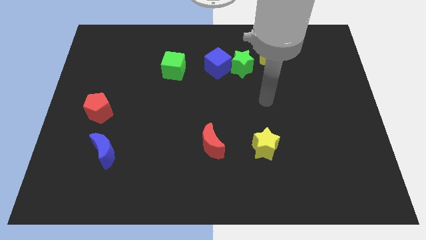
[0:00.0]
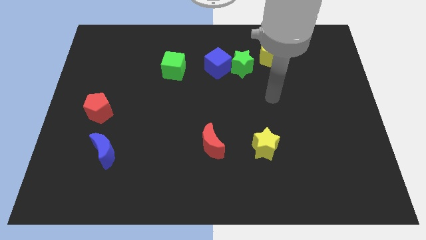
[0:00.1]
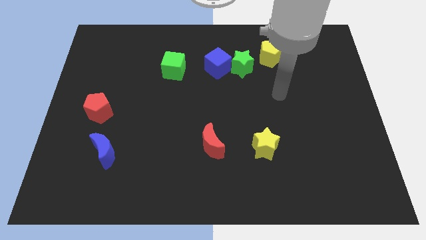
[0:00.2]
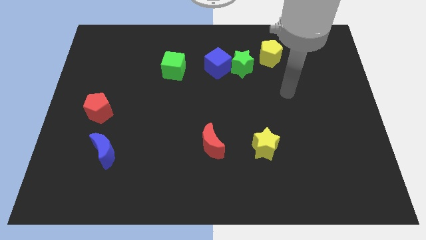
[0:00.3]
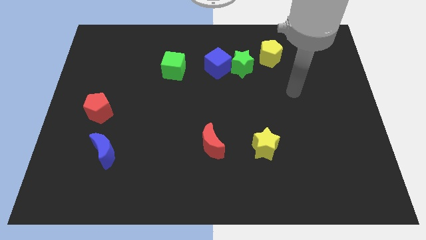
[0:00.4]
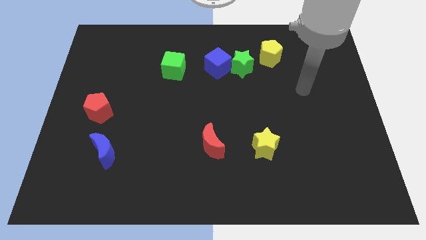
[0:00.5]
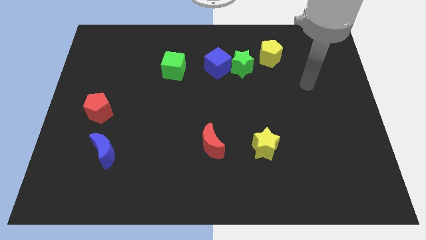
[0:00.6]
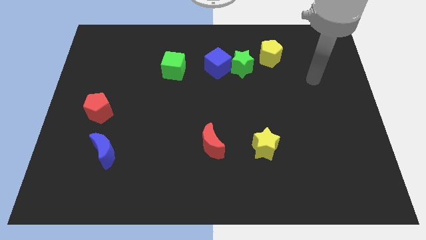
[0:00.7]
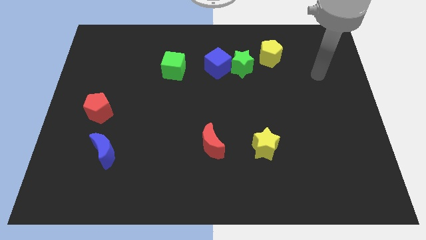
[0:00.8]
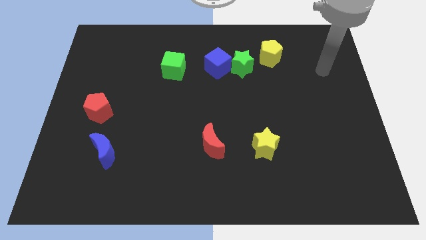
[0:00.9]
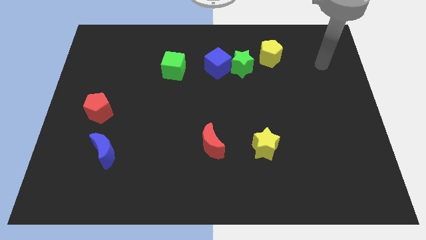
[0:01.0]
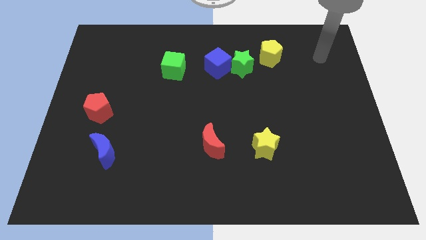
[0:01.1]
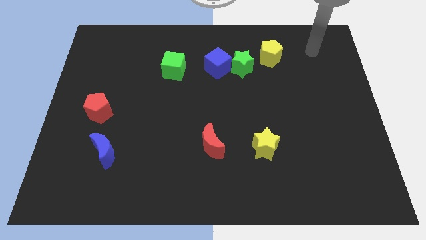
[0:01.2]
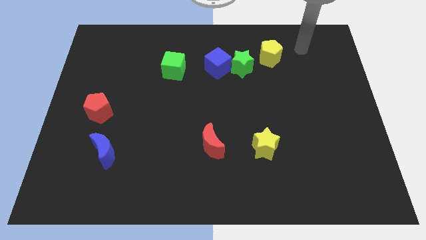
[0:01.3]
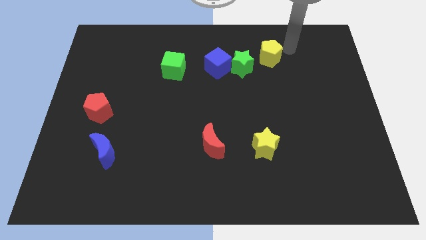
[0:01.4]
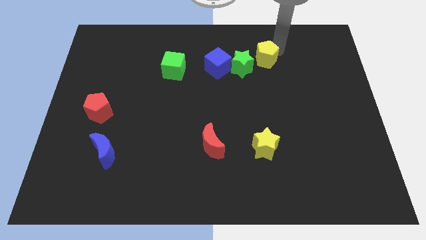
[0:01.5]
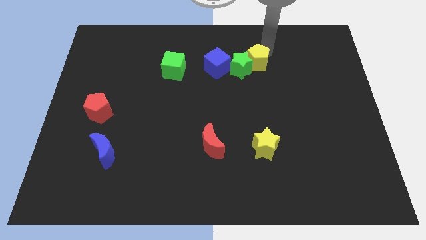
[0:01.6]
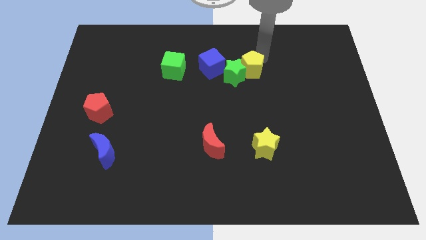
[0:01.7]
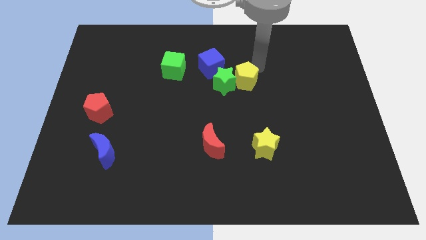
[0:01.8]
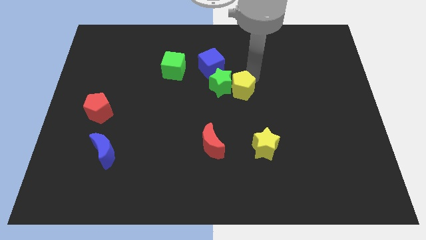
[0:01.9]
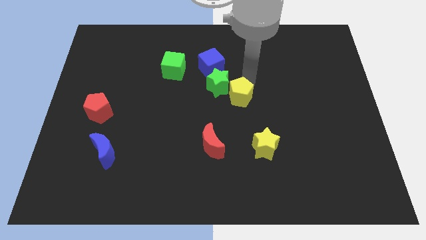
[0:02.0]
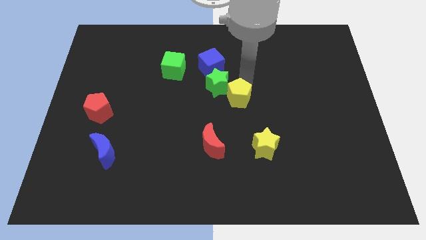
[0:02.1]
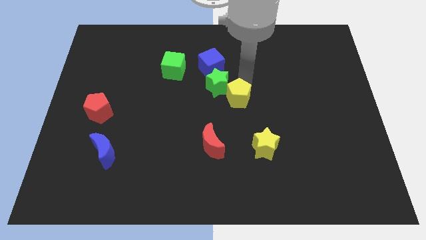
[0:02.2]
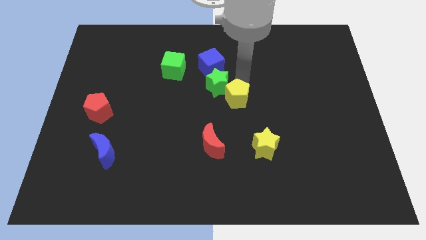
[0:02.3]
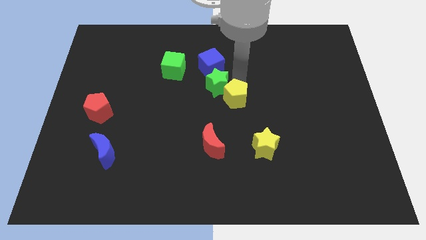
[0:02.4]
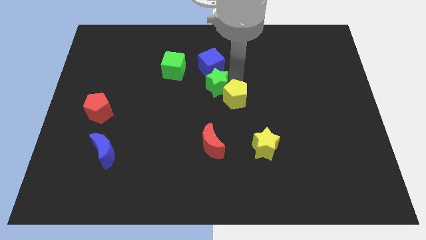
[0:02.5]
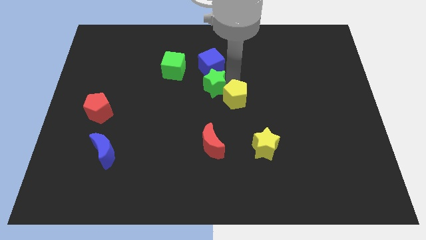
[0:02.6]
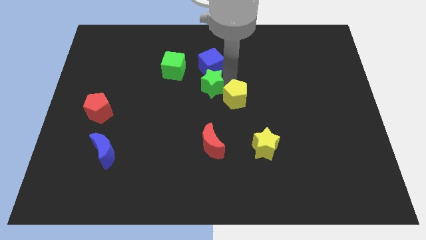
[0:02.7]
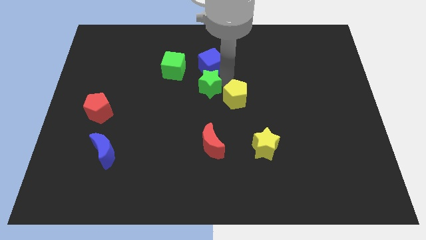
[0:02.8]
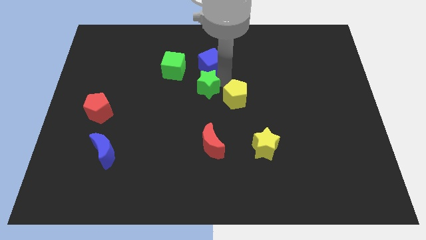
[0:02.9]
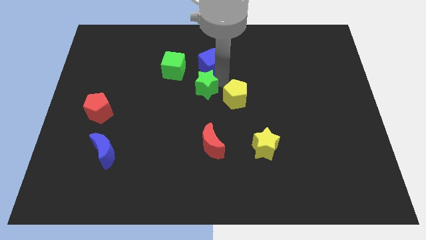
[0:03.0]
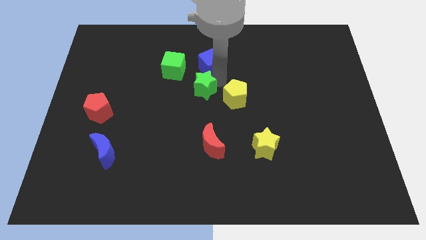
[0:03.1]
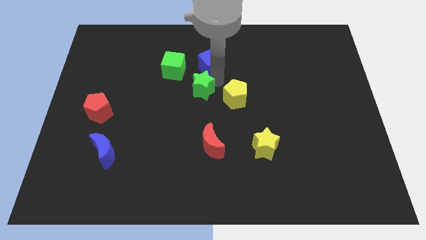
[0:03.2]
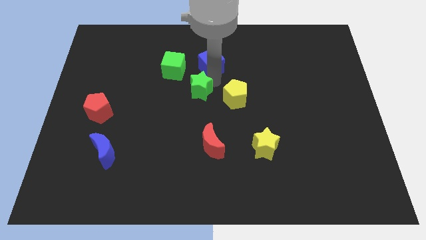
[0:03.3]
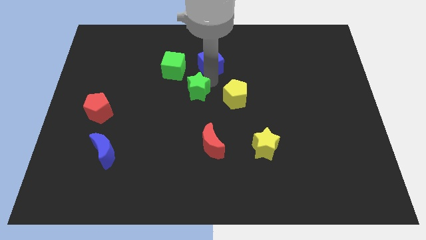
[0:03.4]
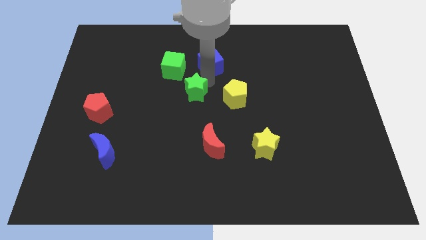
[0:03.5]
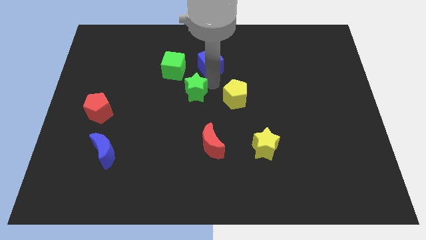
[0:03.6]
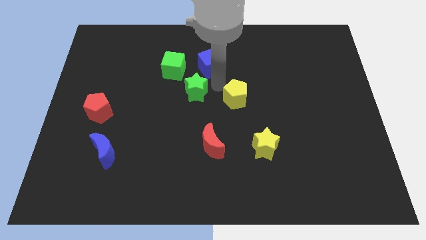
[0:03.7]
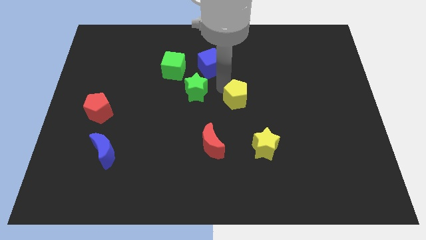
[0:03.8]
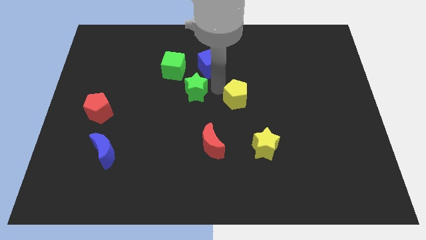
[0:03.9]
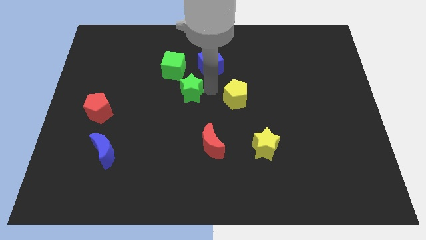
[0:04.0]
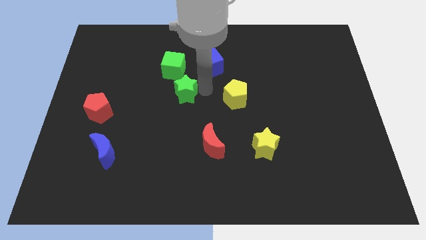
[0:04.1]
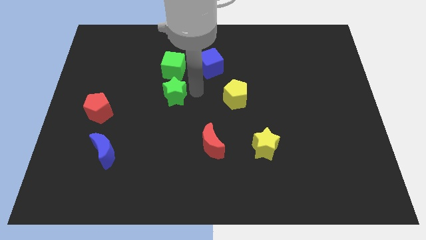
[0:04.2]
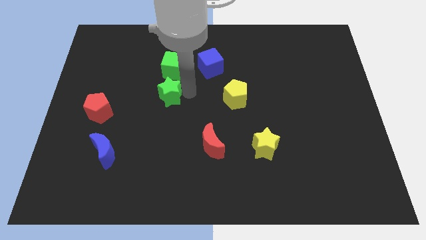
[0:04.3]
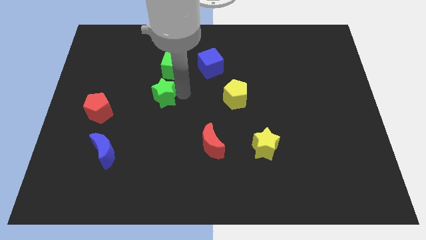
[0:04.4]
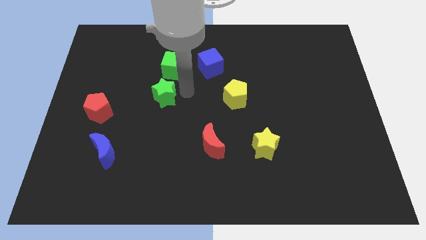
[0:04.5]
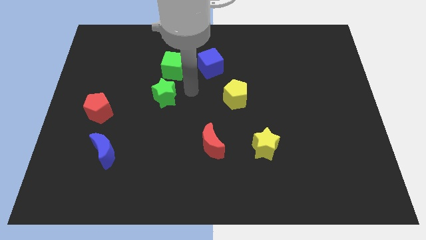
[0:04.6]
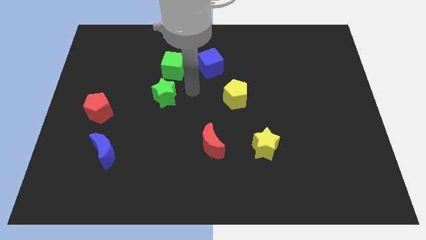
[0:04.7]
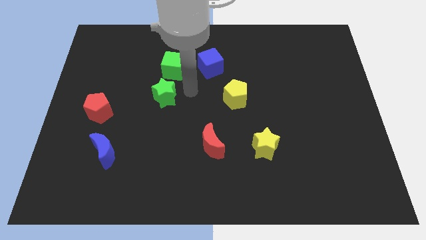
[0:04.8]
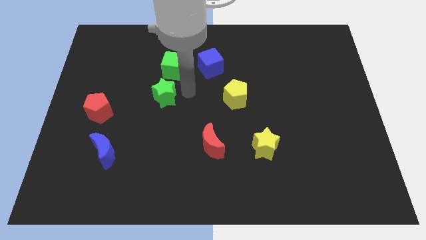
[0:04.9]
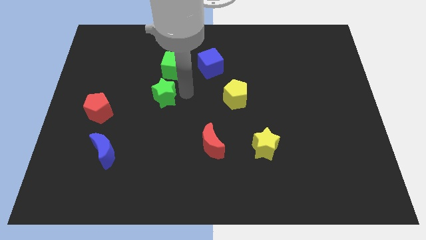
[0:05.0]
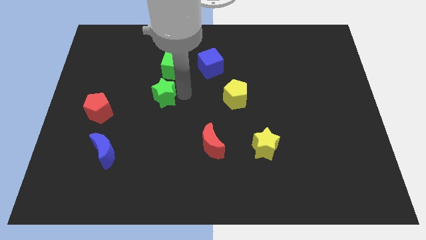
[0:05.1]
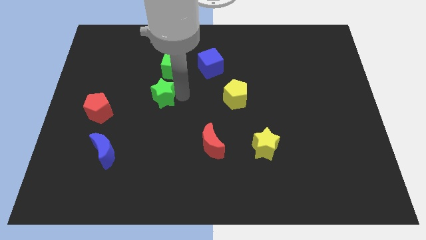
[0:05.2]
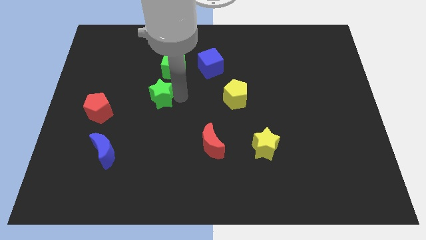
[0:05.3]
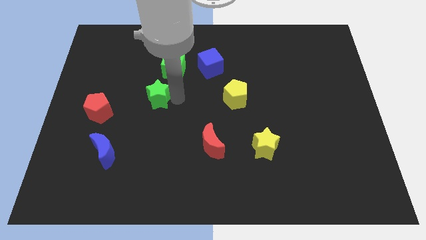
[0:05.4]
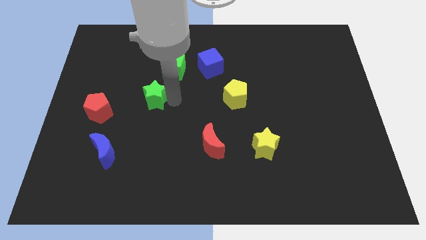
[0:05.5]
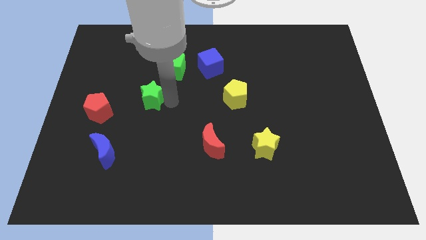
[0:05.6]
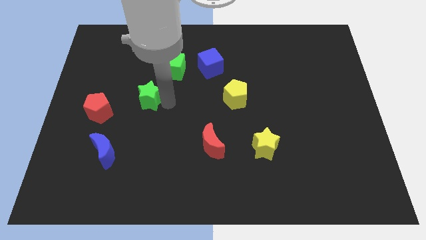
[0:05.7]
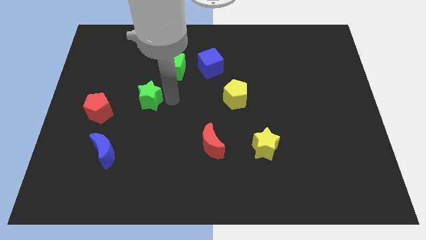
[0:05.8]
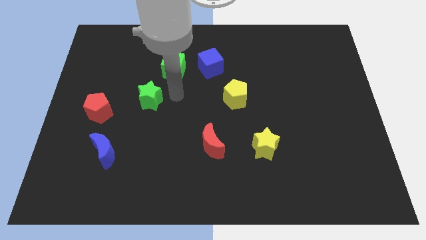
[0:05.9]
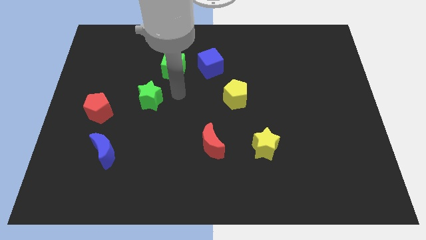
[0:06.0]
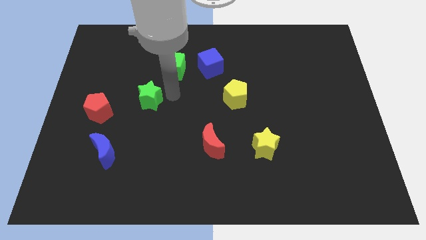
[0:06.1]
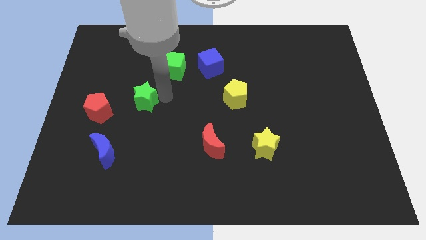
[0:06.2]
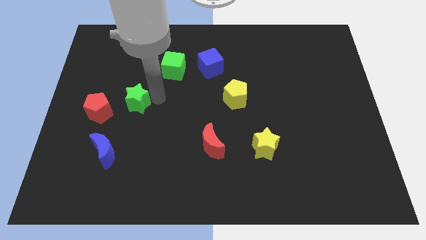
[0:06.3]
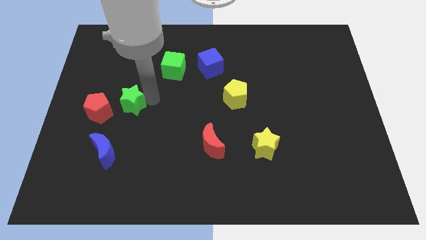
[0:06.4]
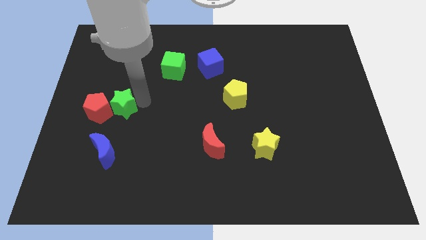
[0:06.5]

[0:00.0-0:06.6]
put the green star to the red pentagon

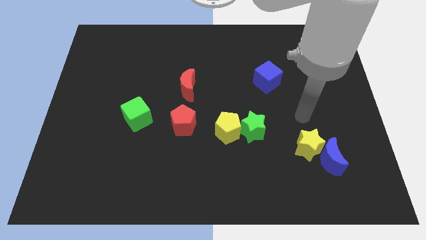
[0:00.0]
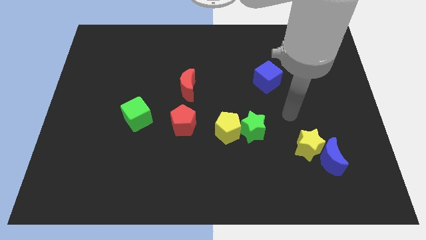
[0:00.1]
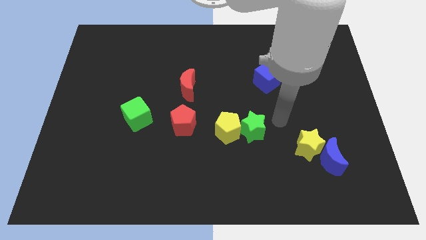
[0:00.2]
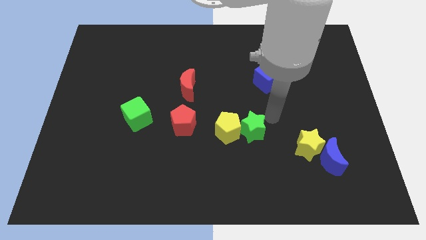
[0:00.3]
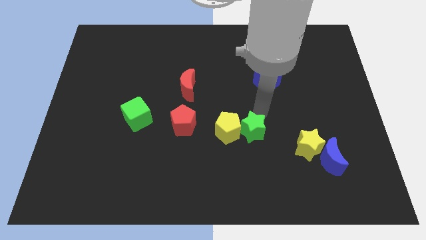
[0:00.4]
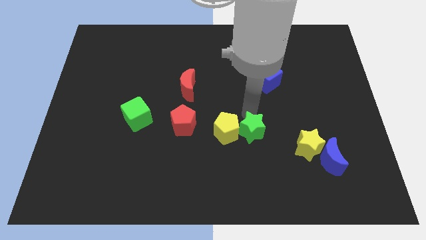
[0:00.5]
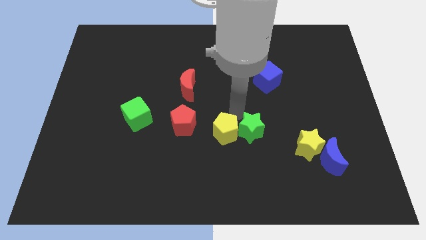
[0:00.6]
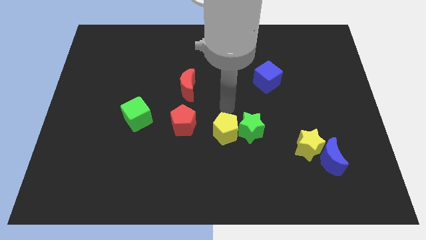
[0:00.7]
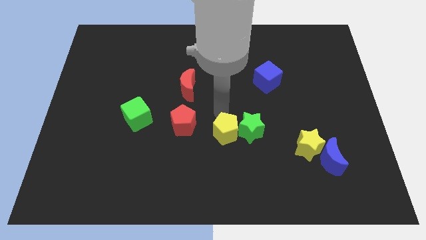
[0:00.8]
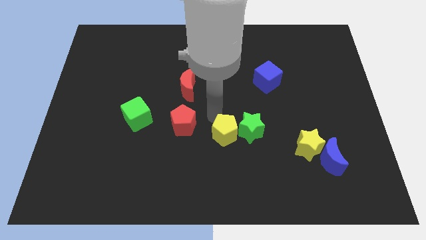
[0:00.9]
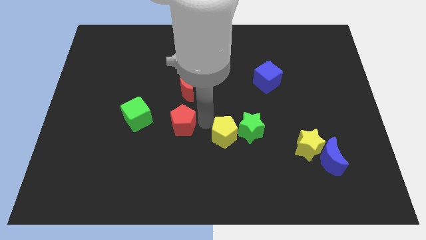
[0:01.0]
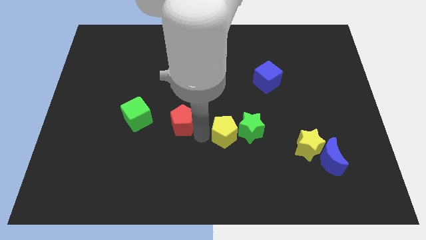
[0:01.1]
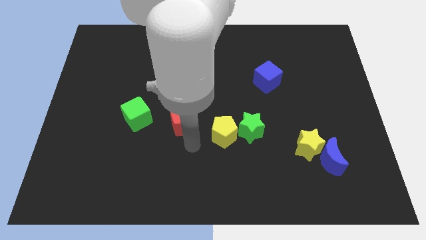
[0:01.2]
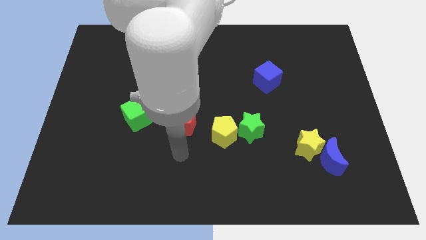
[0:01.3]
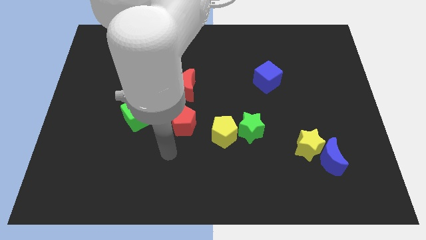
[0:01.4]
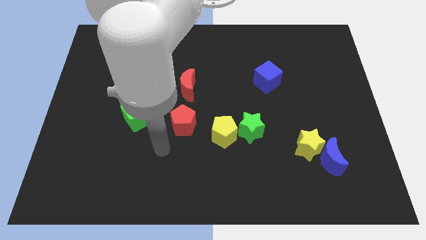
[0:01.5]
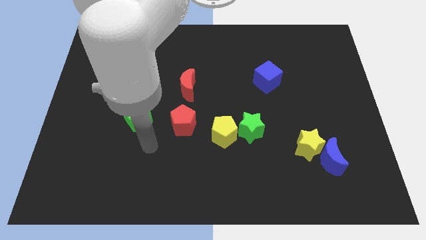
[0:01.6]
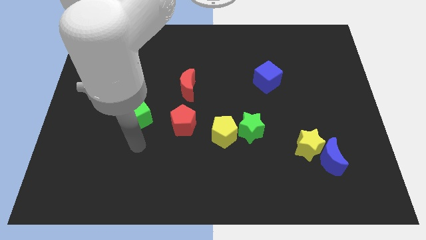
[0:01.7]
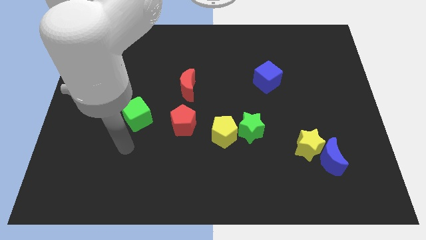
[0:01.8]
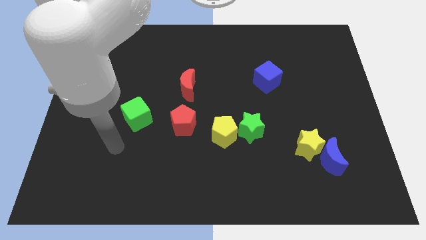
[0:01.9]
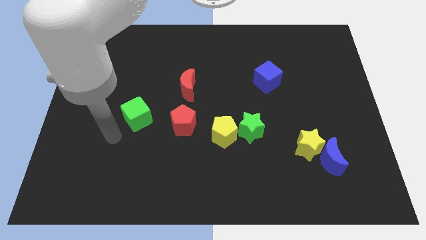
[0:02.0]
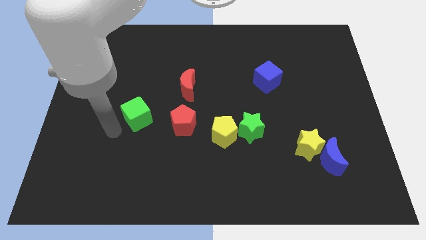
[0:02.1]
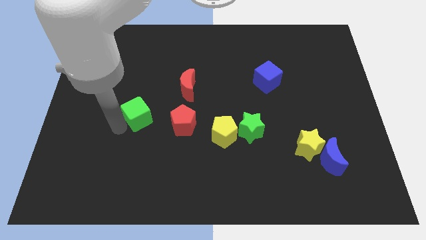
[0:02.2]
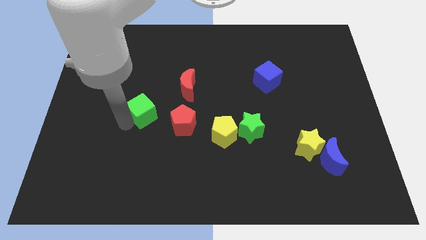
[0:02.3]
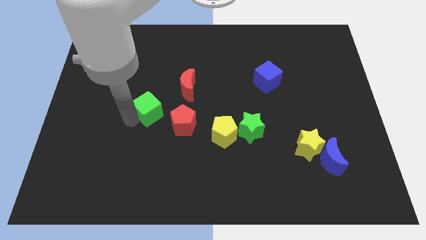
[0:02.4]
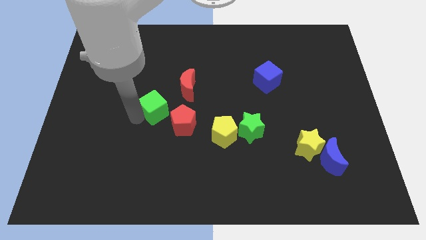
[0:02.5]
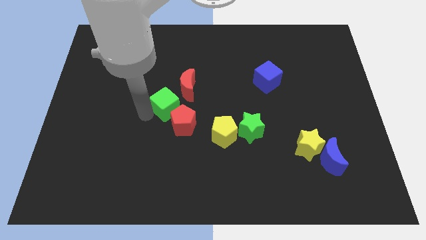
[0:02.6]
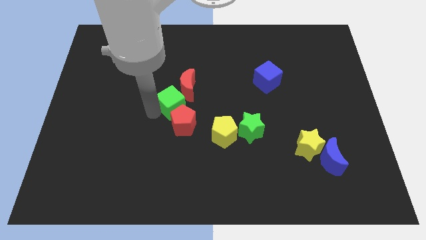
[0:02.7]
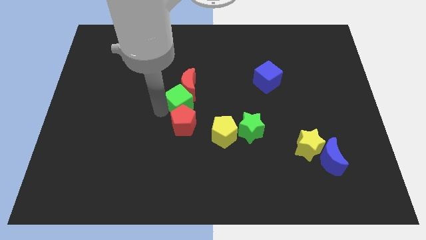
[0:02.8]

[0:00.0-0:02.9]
put the green cube next to the red moon
